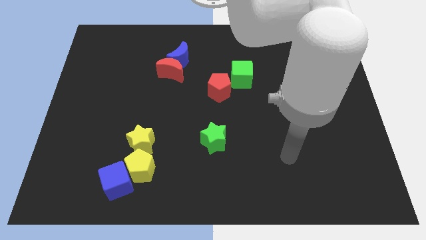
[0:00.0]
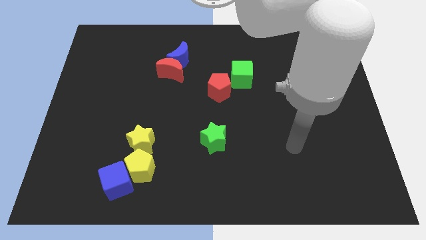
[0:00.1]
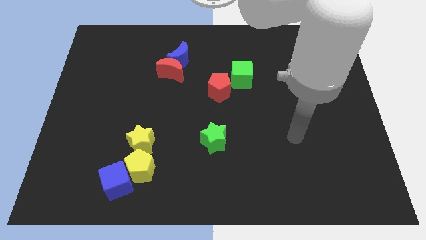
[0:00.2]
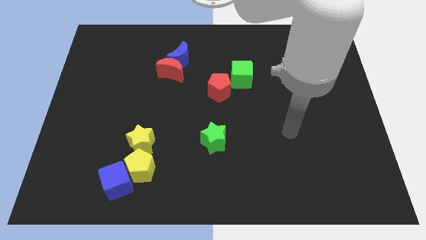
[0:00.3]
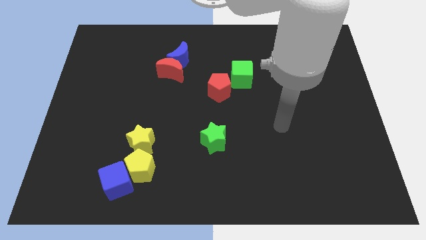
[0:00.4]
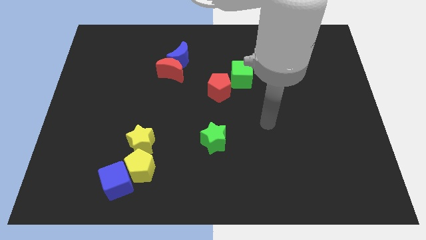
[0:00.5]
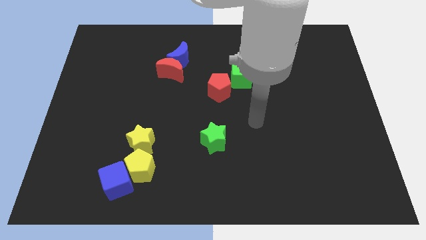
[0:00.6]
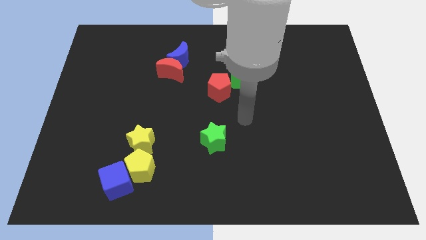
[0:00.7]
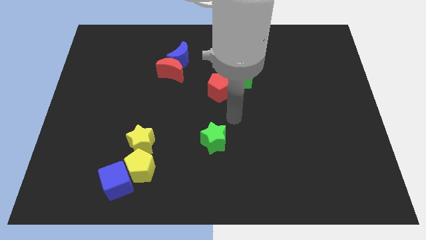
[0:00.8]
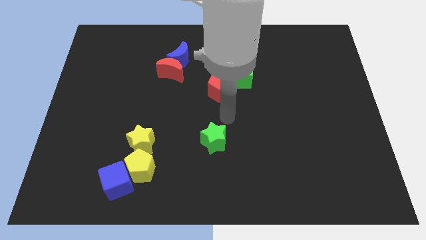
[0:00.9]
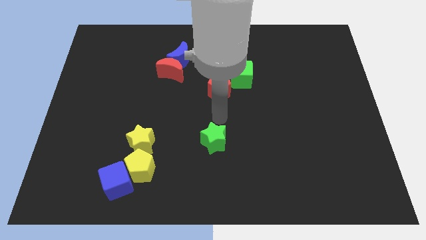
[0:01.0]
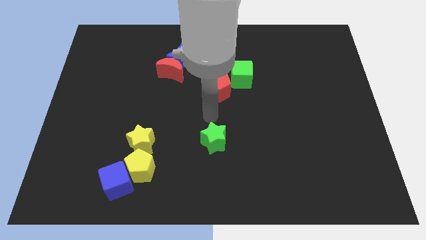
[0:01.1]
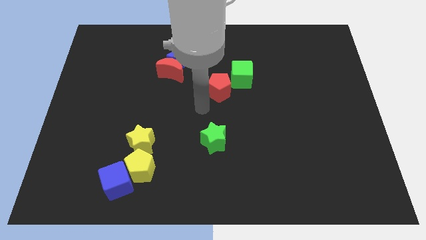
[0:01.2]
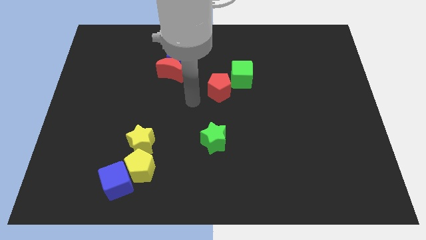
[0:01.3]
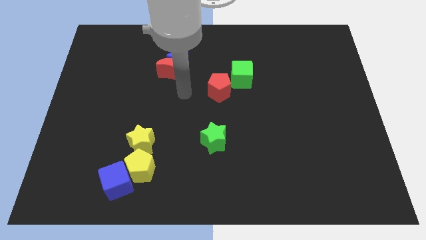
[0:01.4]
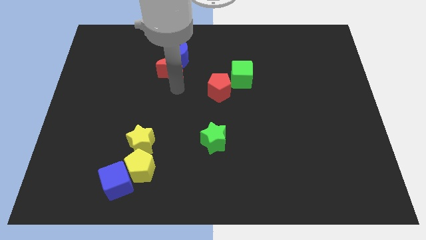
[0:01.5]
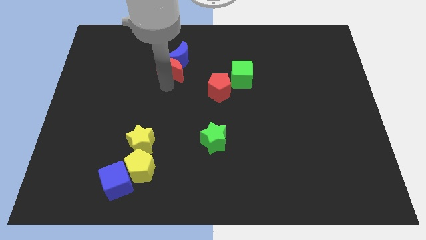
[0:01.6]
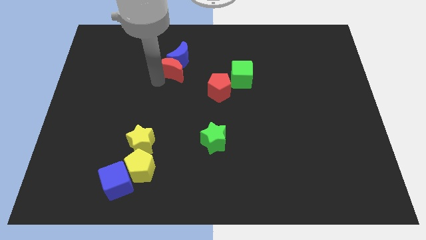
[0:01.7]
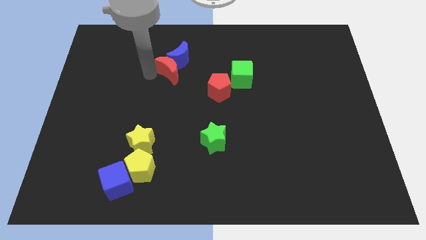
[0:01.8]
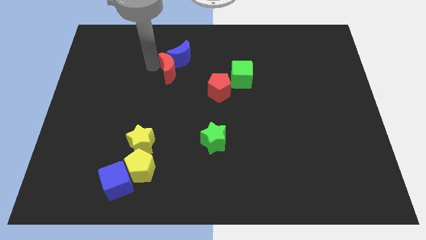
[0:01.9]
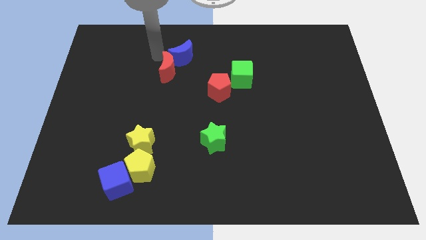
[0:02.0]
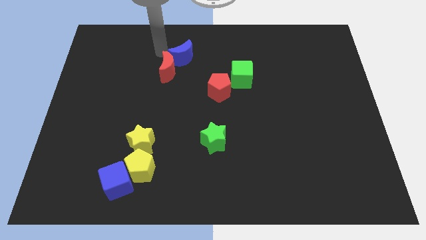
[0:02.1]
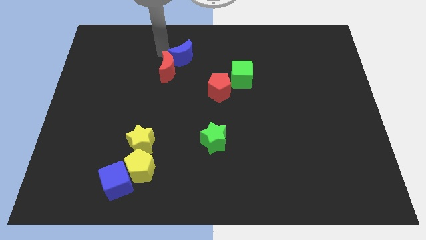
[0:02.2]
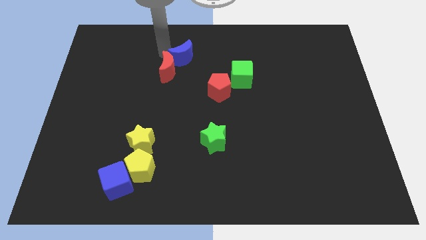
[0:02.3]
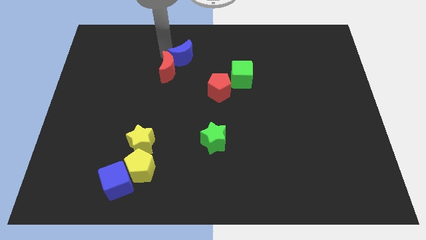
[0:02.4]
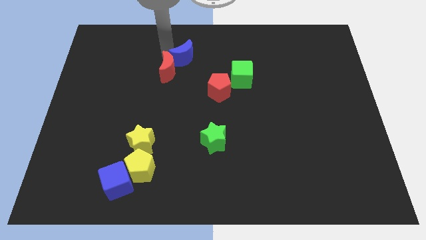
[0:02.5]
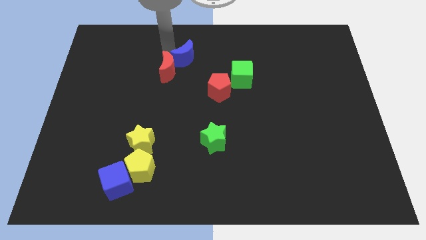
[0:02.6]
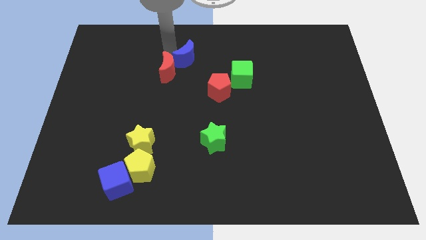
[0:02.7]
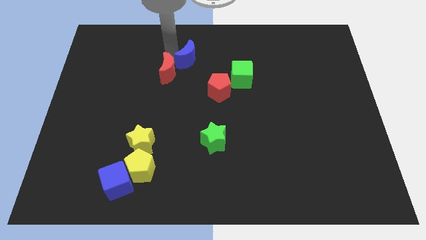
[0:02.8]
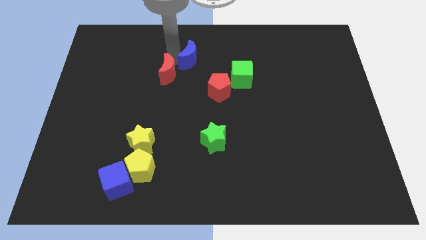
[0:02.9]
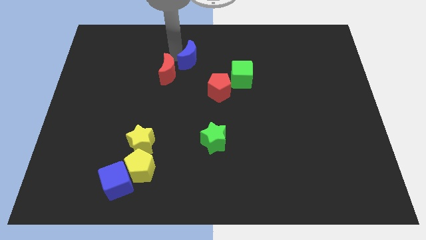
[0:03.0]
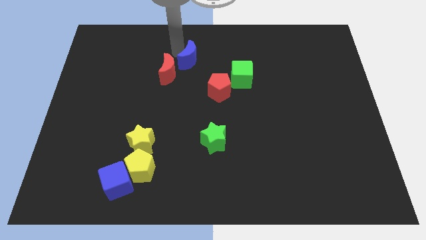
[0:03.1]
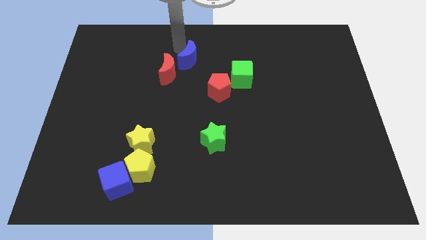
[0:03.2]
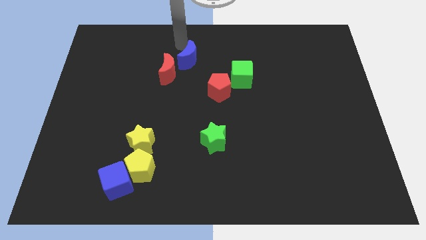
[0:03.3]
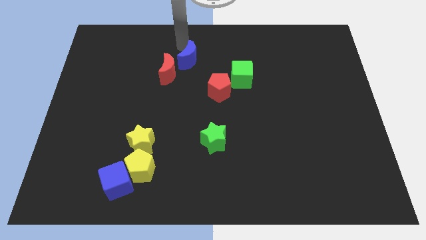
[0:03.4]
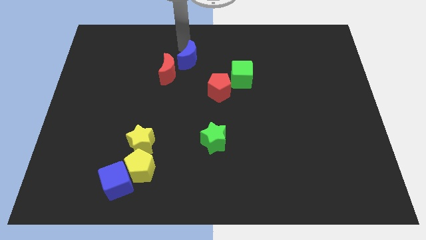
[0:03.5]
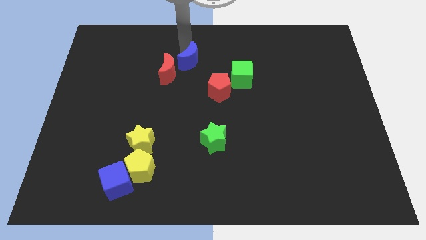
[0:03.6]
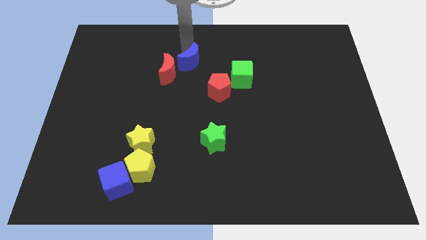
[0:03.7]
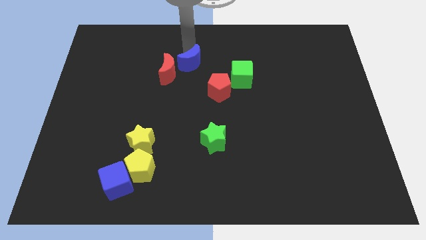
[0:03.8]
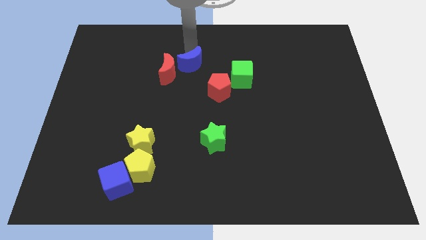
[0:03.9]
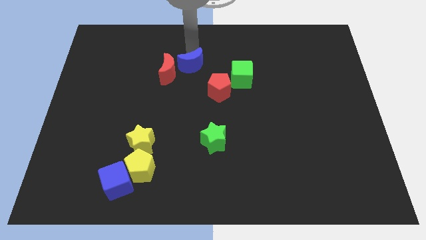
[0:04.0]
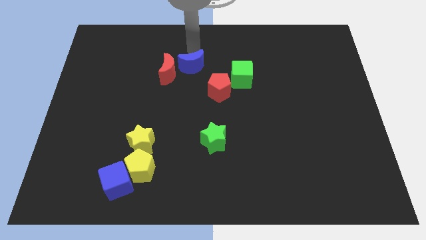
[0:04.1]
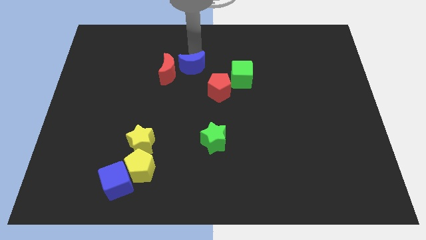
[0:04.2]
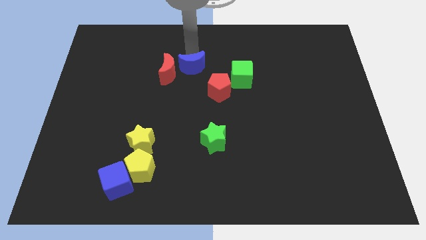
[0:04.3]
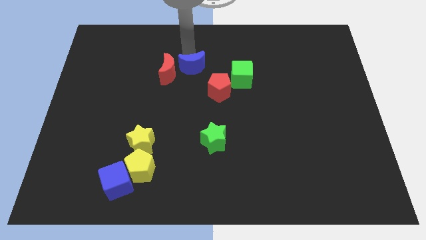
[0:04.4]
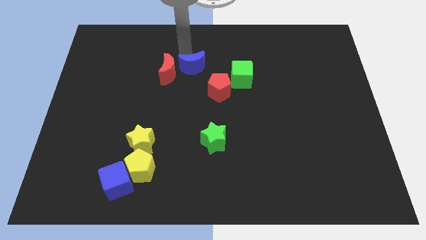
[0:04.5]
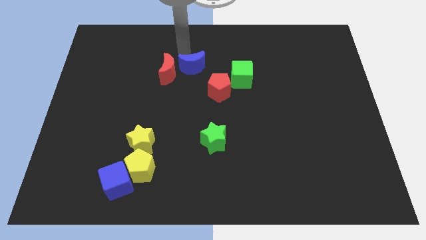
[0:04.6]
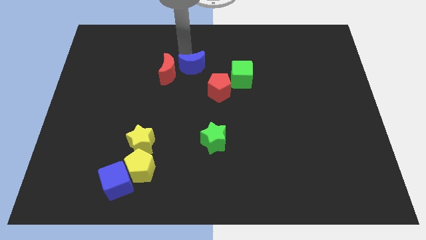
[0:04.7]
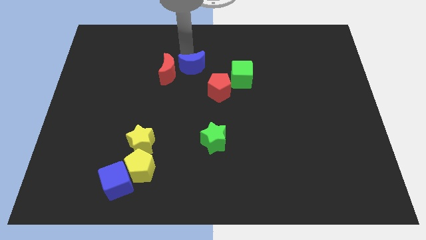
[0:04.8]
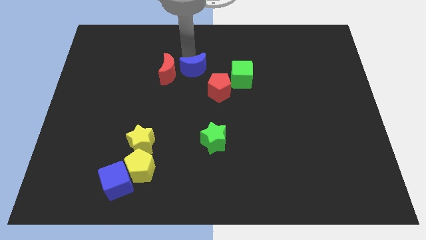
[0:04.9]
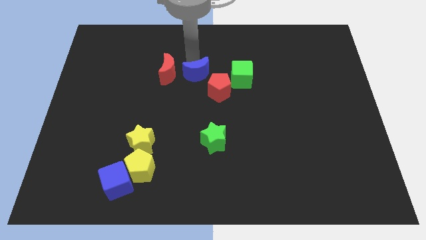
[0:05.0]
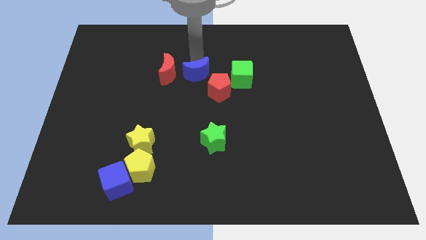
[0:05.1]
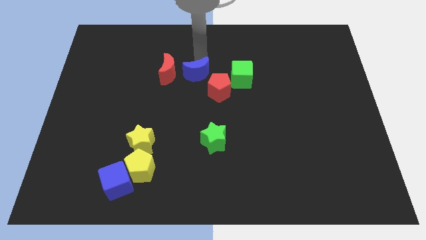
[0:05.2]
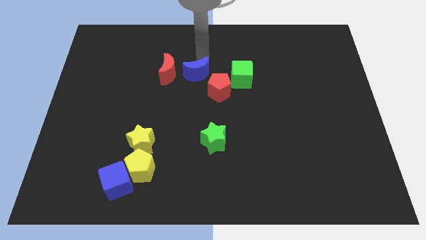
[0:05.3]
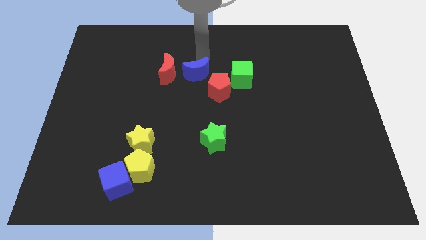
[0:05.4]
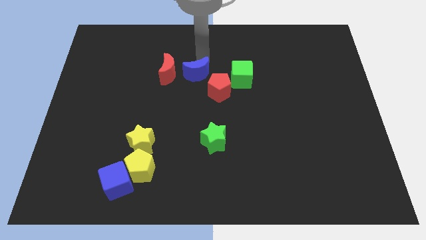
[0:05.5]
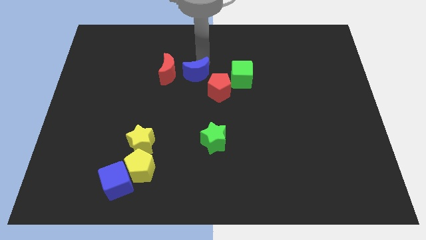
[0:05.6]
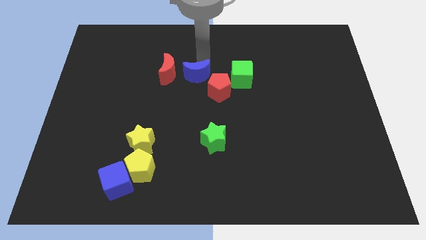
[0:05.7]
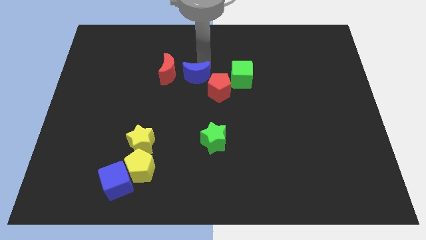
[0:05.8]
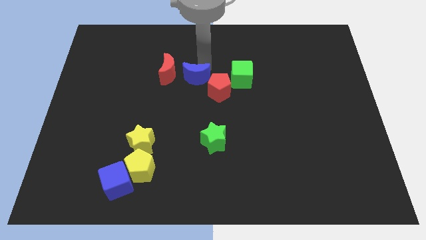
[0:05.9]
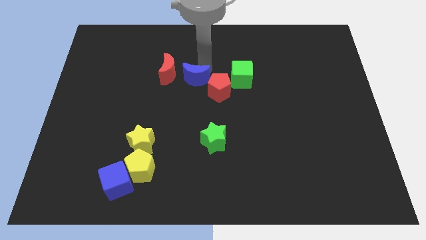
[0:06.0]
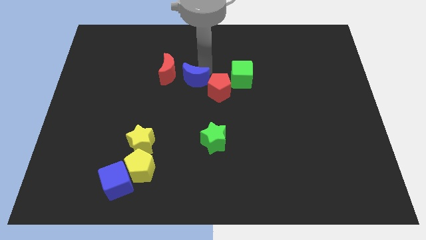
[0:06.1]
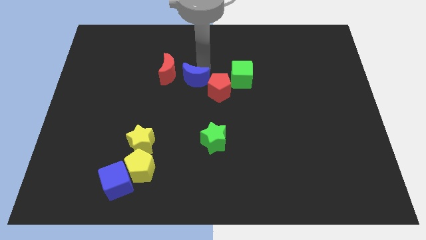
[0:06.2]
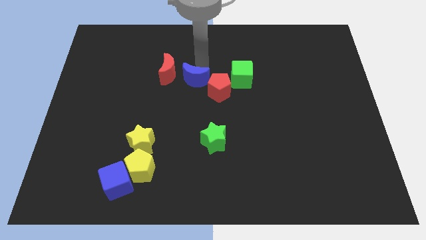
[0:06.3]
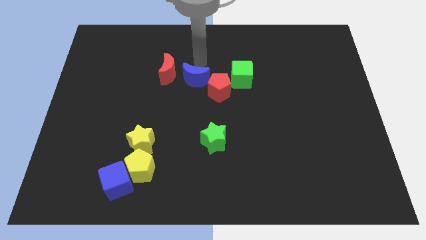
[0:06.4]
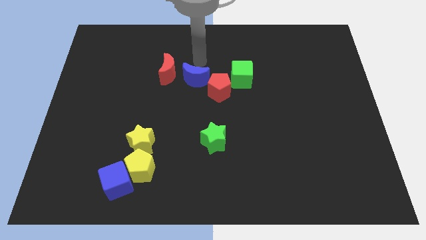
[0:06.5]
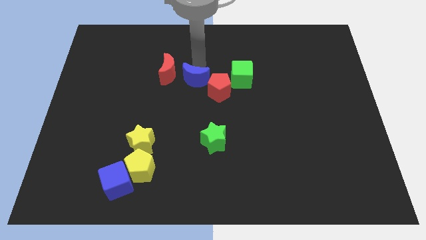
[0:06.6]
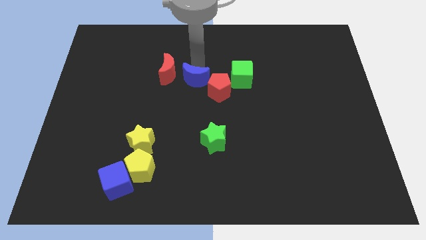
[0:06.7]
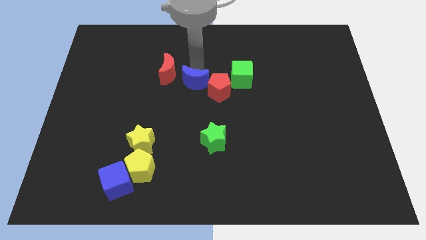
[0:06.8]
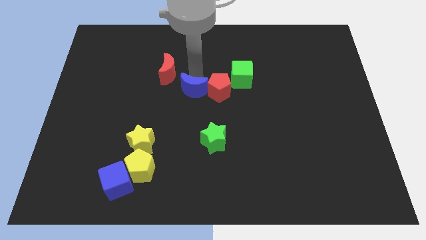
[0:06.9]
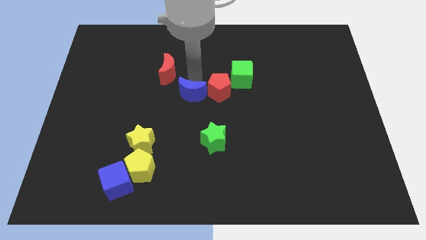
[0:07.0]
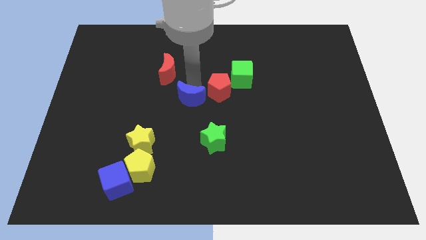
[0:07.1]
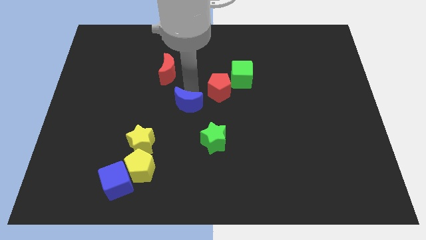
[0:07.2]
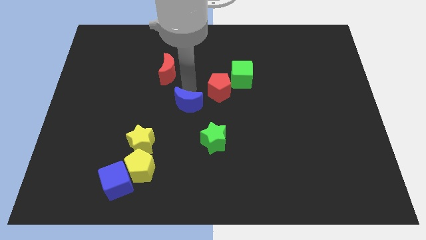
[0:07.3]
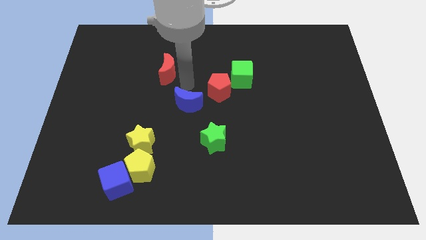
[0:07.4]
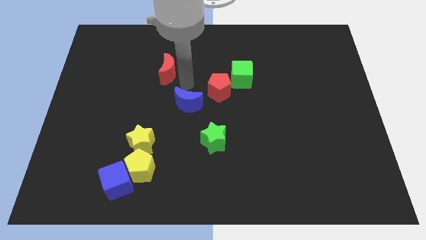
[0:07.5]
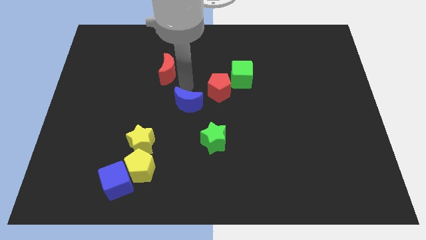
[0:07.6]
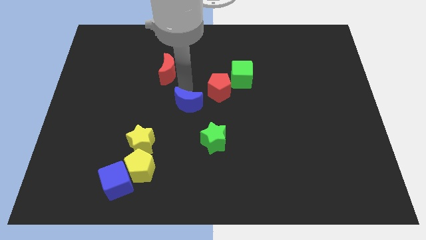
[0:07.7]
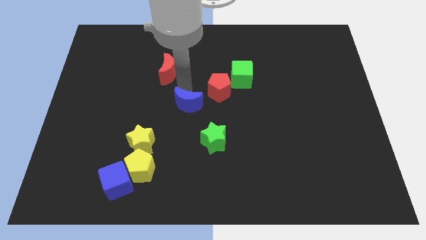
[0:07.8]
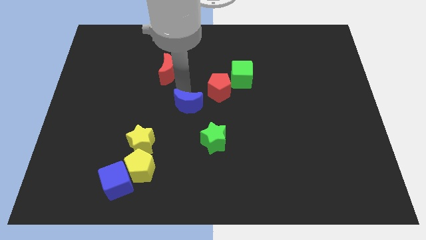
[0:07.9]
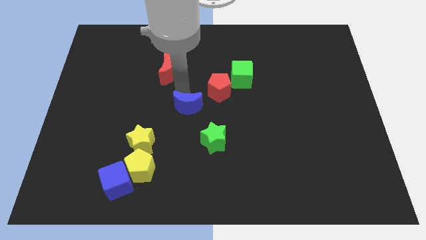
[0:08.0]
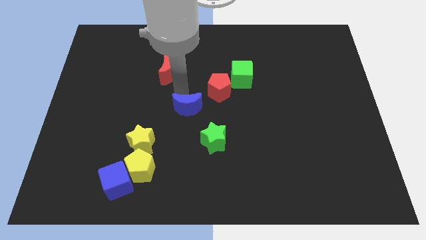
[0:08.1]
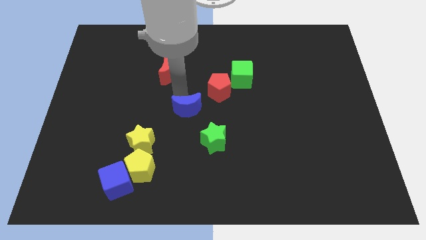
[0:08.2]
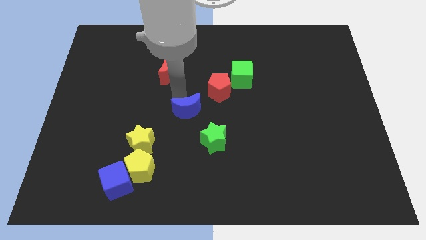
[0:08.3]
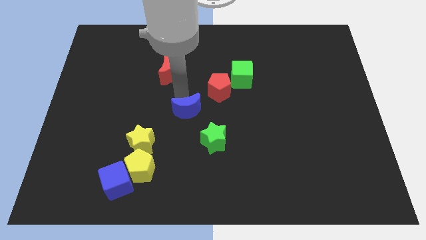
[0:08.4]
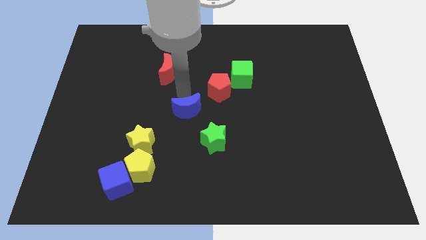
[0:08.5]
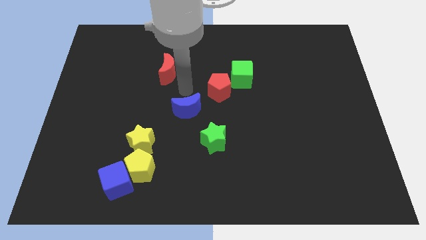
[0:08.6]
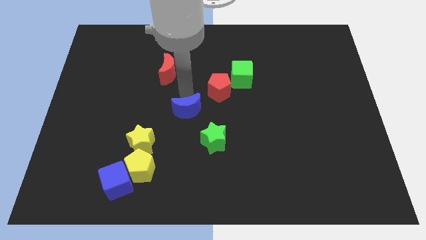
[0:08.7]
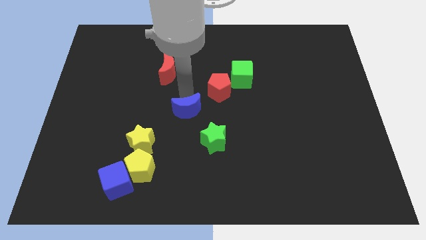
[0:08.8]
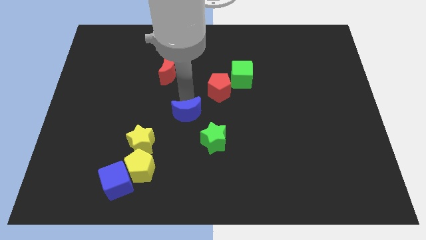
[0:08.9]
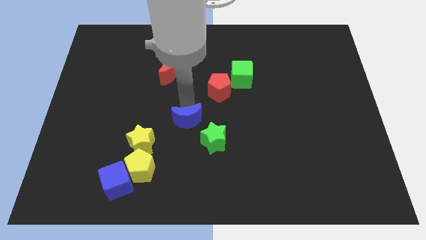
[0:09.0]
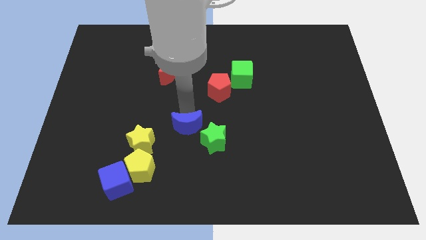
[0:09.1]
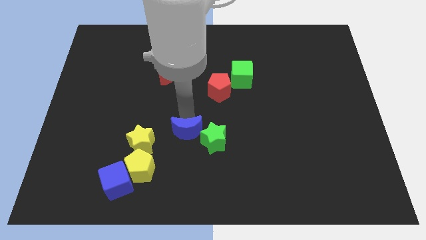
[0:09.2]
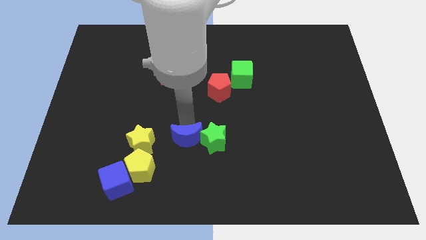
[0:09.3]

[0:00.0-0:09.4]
slide the blue moon diagonally down and to the left of the green star
